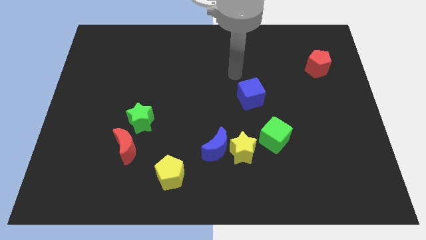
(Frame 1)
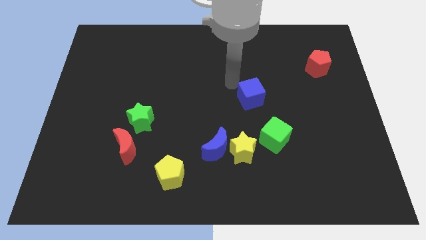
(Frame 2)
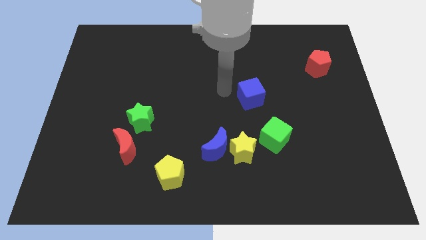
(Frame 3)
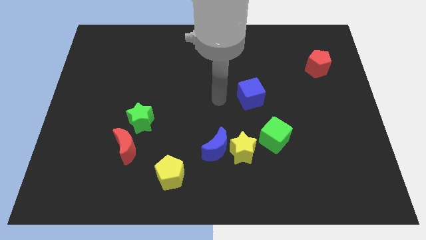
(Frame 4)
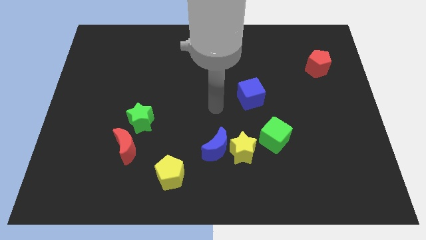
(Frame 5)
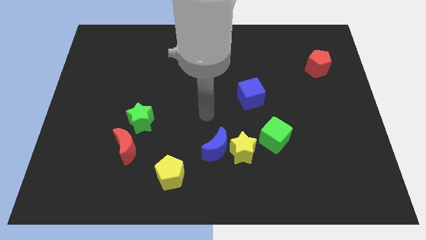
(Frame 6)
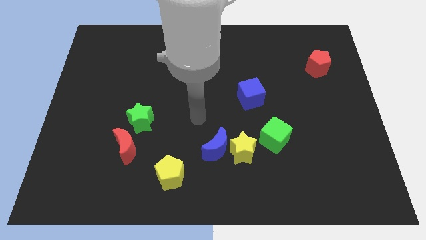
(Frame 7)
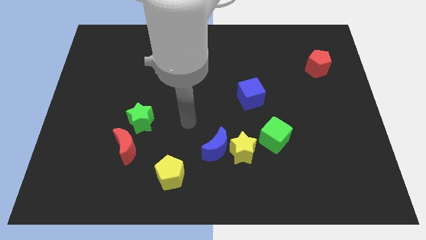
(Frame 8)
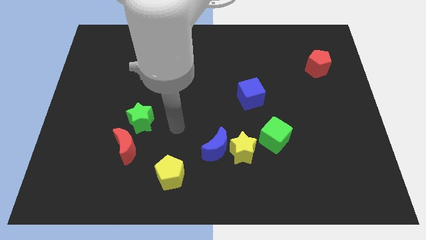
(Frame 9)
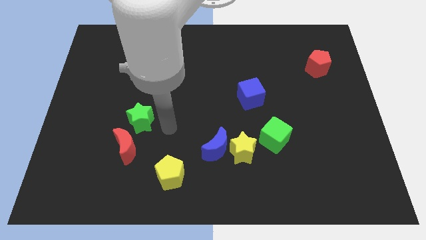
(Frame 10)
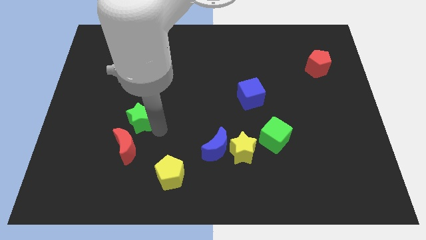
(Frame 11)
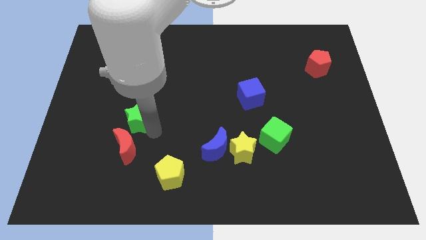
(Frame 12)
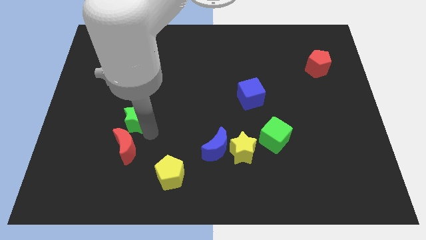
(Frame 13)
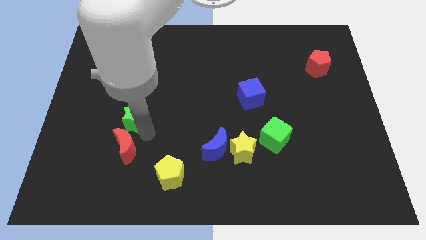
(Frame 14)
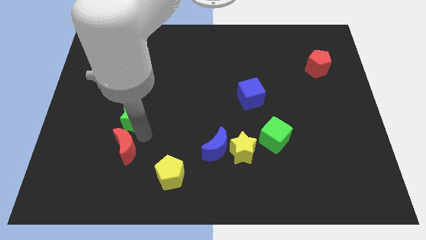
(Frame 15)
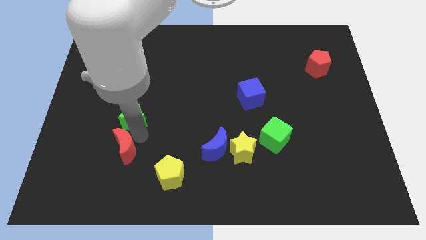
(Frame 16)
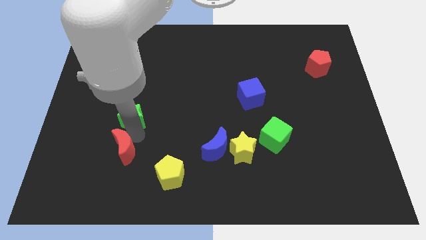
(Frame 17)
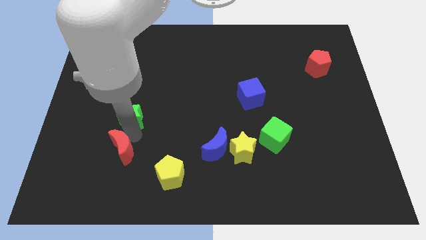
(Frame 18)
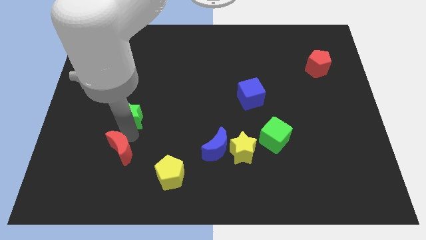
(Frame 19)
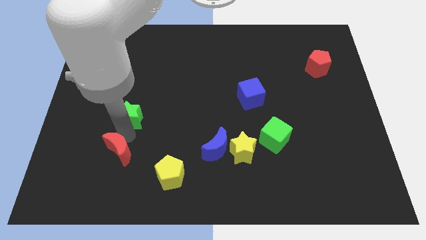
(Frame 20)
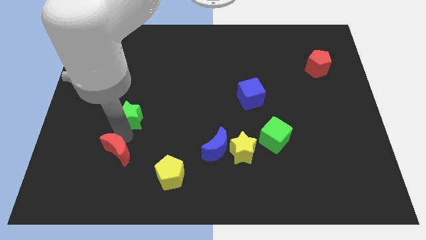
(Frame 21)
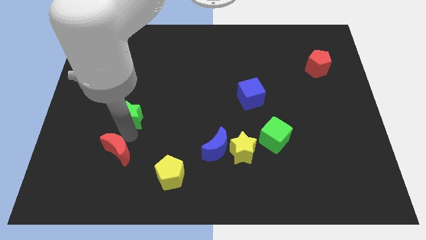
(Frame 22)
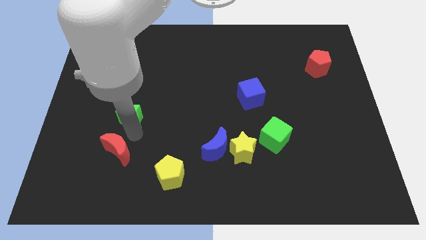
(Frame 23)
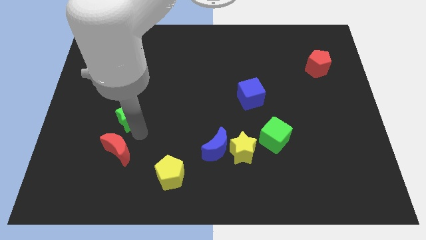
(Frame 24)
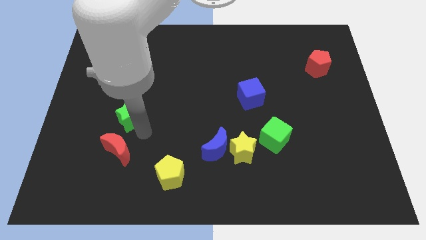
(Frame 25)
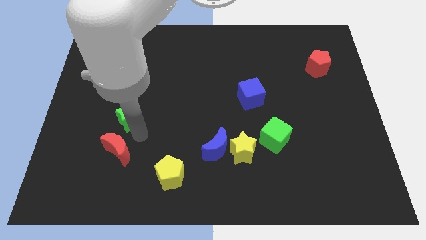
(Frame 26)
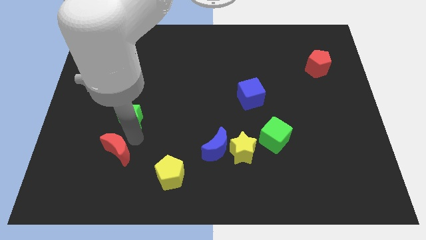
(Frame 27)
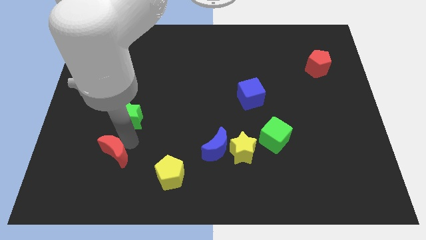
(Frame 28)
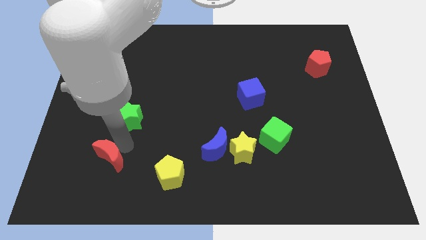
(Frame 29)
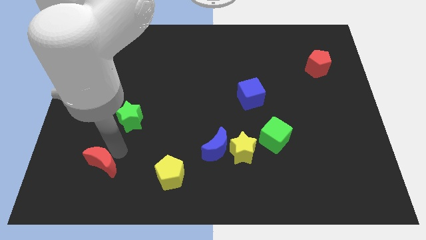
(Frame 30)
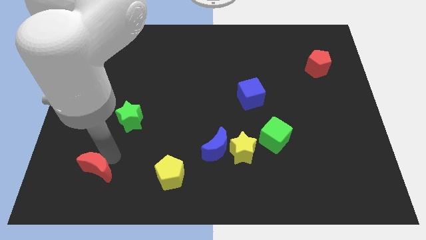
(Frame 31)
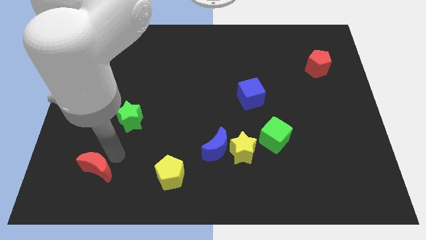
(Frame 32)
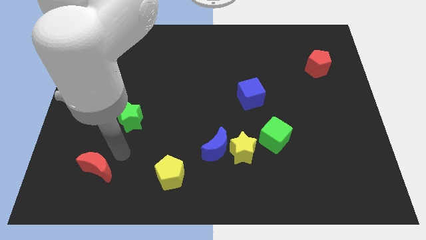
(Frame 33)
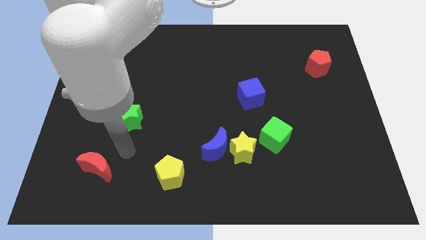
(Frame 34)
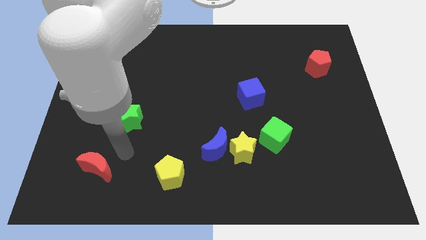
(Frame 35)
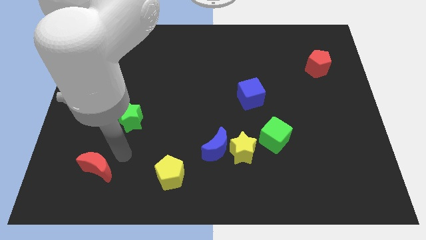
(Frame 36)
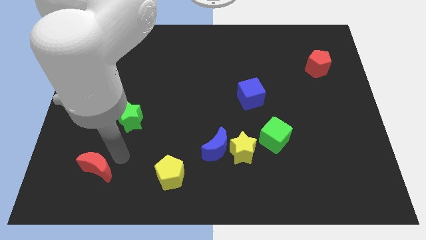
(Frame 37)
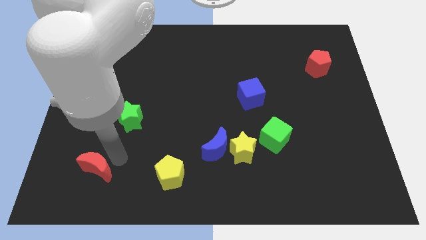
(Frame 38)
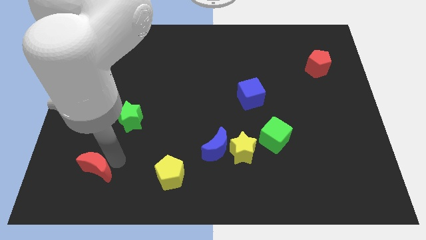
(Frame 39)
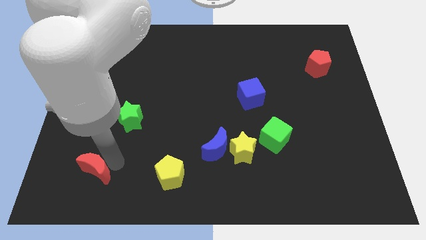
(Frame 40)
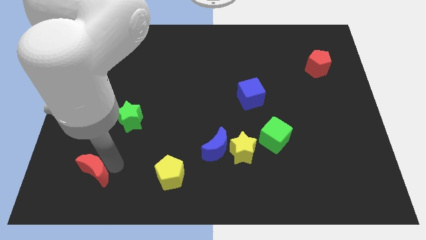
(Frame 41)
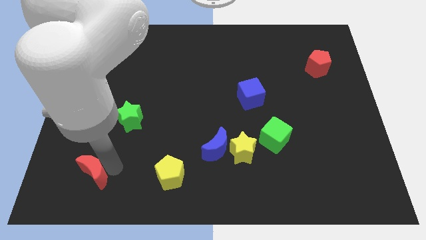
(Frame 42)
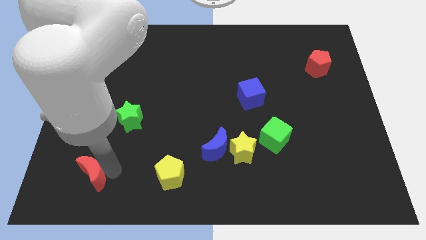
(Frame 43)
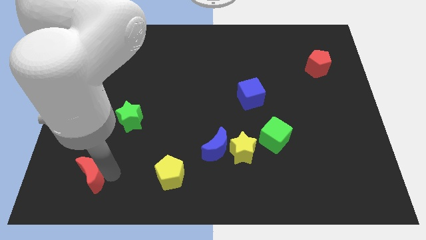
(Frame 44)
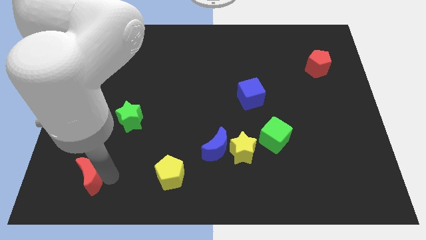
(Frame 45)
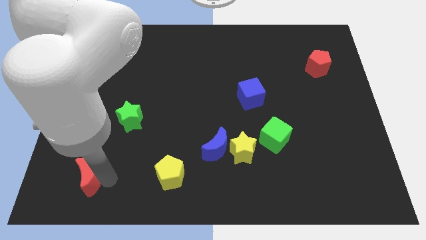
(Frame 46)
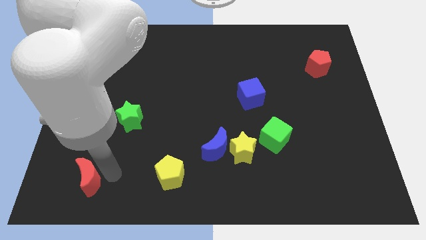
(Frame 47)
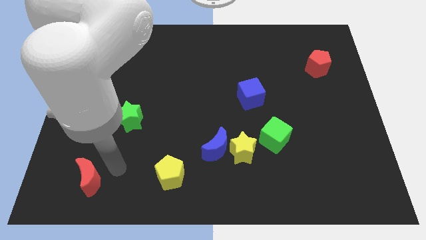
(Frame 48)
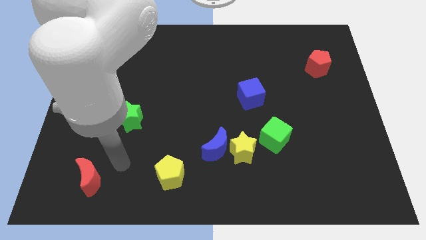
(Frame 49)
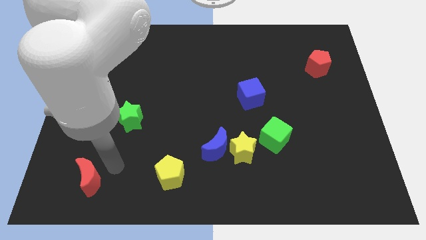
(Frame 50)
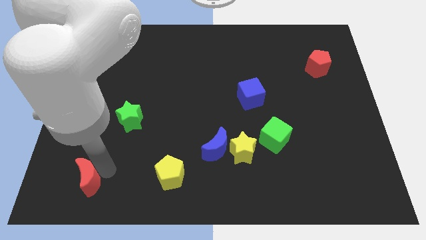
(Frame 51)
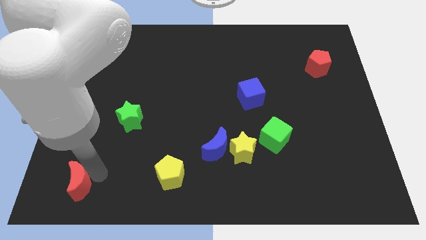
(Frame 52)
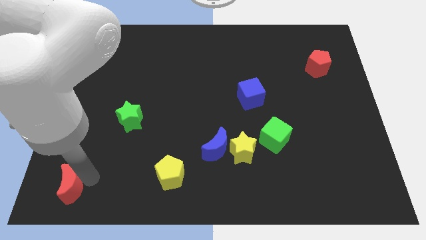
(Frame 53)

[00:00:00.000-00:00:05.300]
push the red moon to the bottom left of the board
